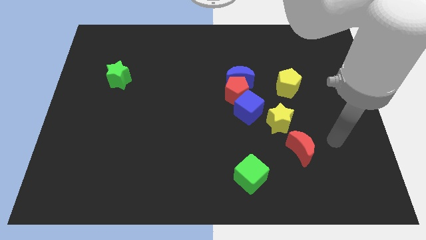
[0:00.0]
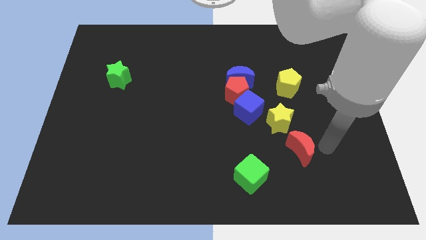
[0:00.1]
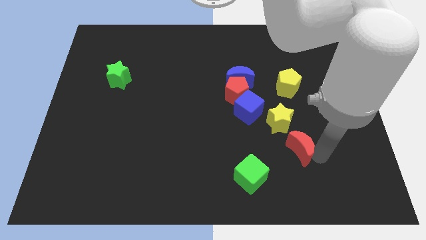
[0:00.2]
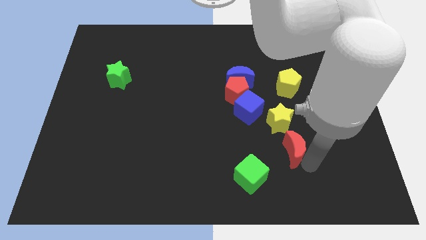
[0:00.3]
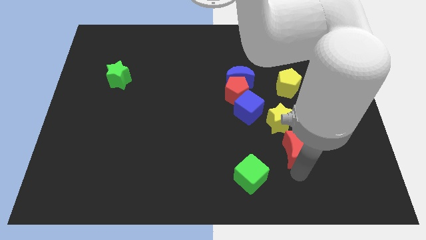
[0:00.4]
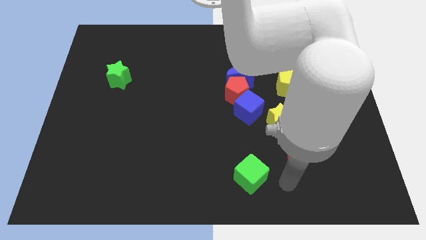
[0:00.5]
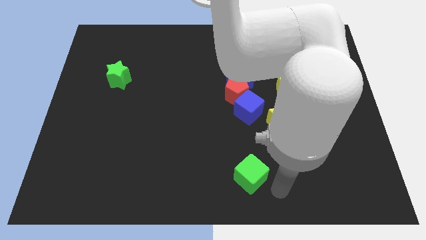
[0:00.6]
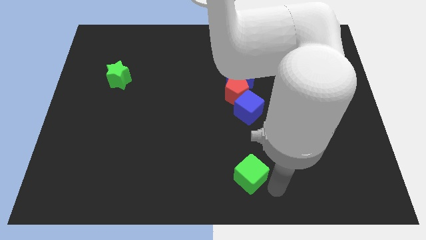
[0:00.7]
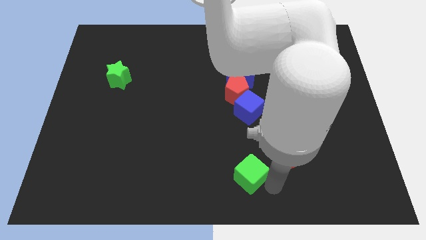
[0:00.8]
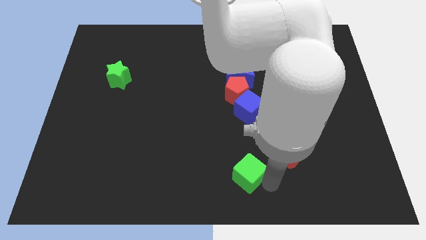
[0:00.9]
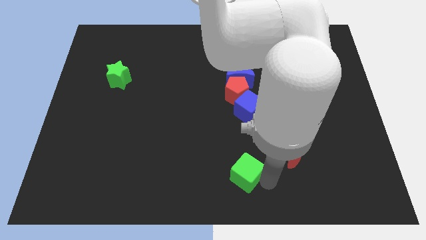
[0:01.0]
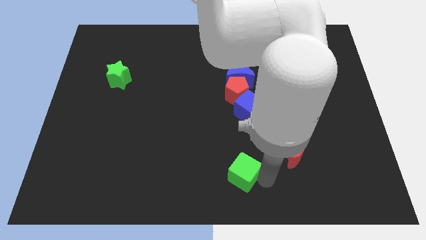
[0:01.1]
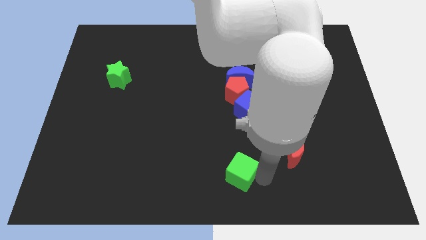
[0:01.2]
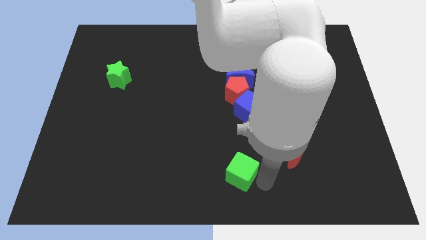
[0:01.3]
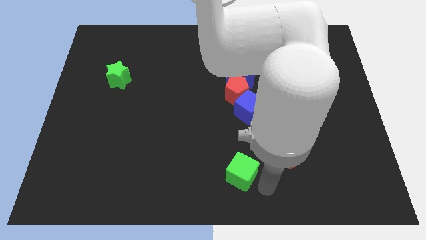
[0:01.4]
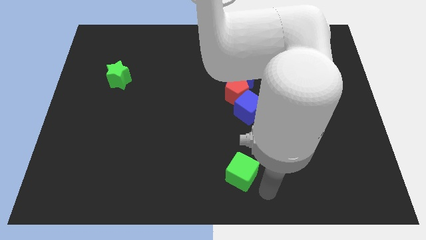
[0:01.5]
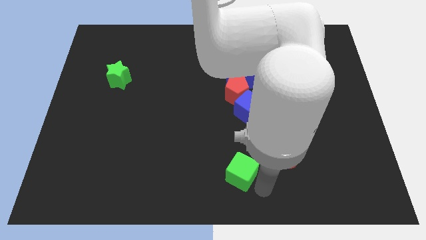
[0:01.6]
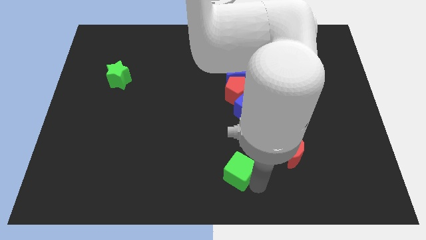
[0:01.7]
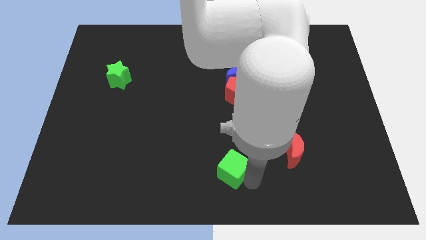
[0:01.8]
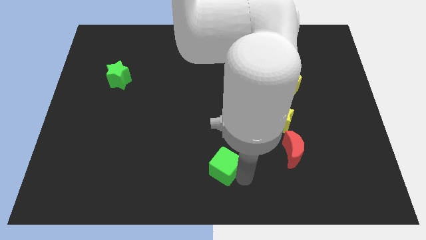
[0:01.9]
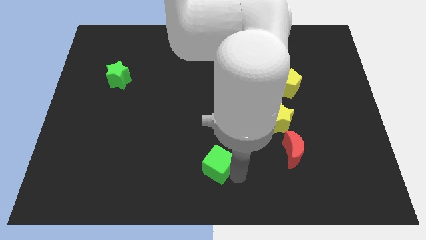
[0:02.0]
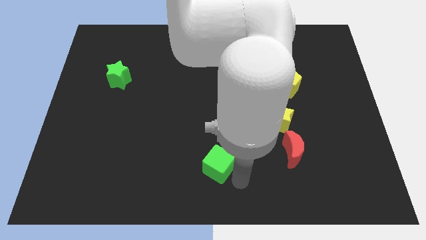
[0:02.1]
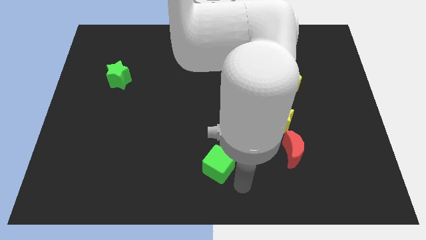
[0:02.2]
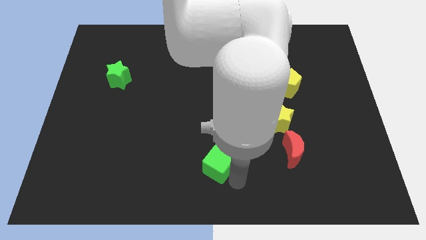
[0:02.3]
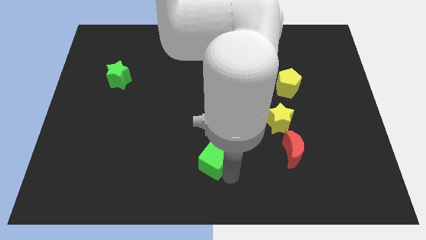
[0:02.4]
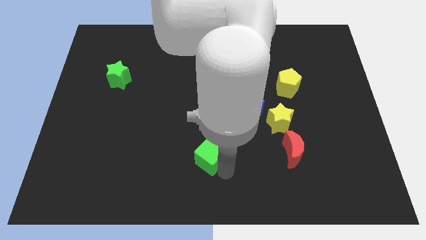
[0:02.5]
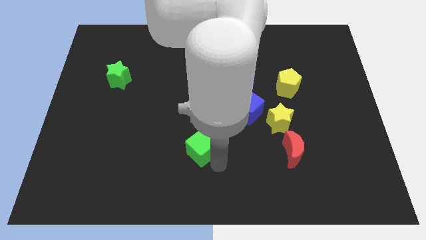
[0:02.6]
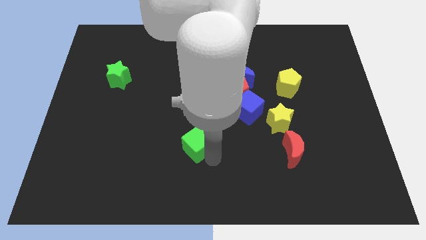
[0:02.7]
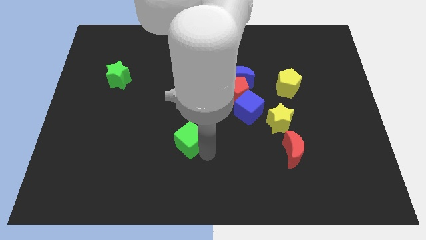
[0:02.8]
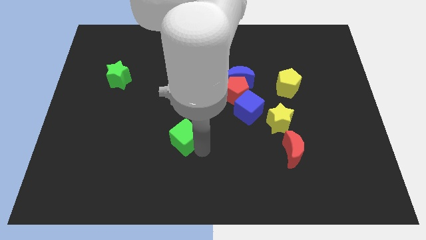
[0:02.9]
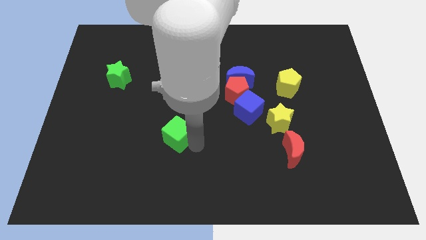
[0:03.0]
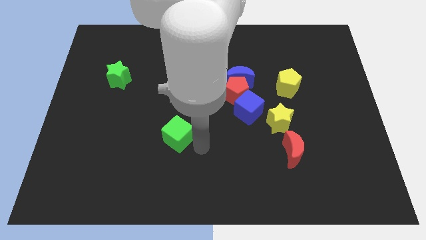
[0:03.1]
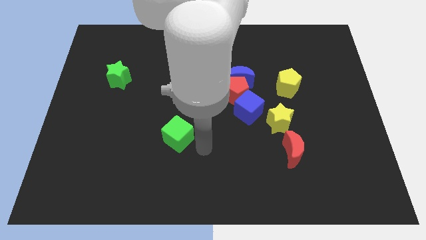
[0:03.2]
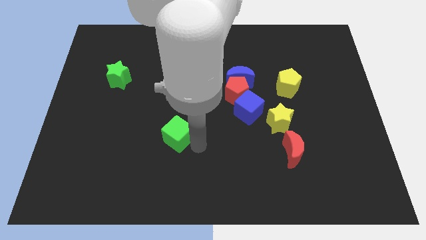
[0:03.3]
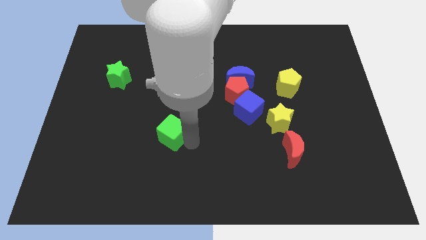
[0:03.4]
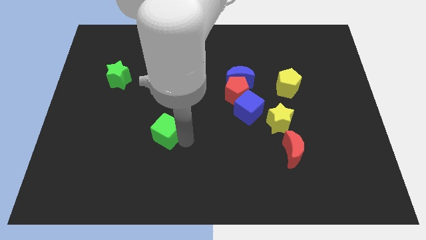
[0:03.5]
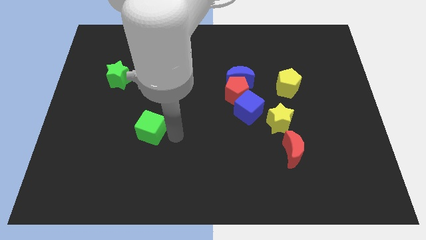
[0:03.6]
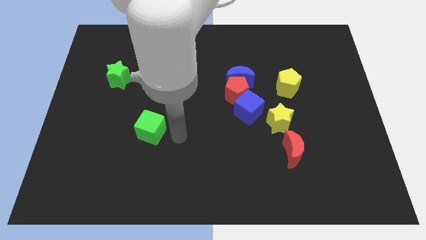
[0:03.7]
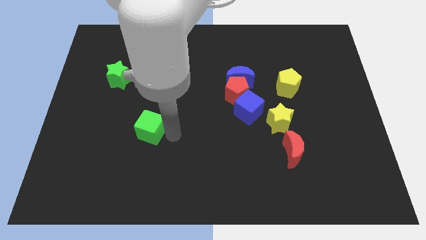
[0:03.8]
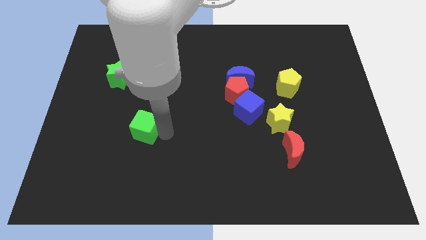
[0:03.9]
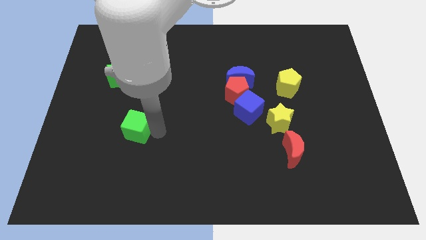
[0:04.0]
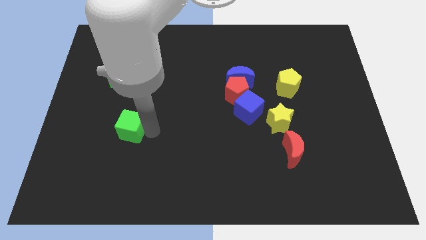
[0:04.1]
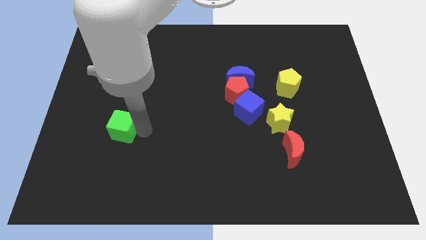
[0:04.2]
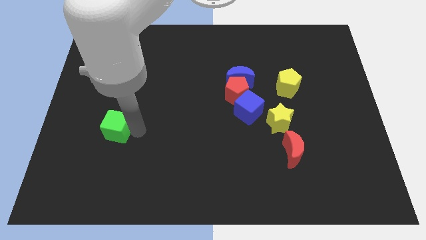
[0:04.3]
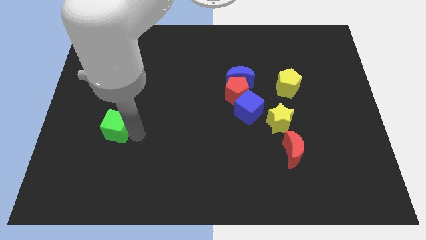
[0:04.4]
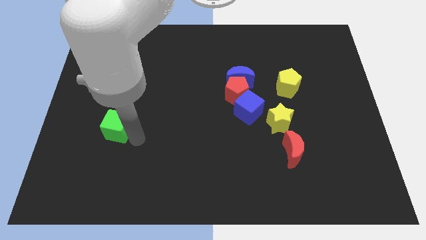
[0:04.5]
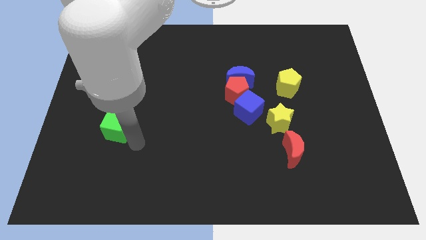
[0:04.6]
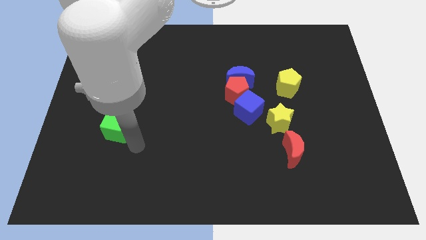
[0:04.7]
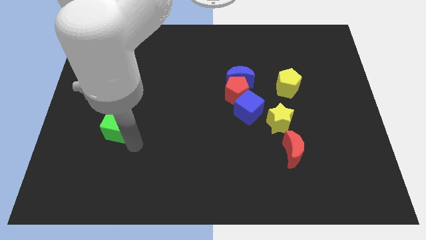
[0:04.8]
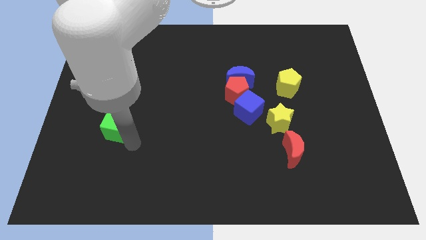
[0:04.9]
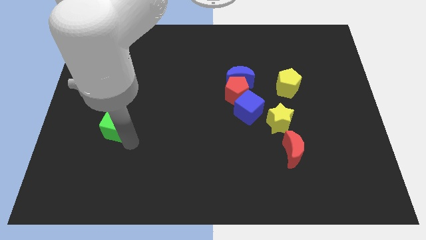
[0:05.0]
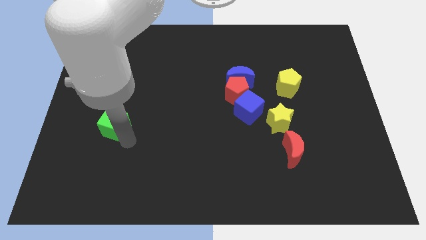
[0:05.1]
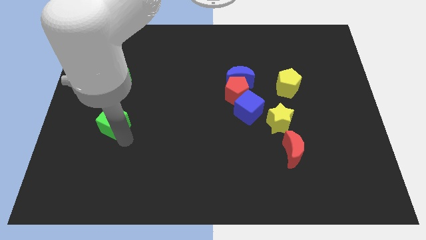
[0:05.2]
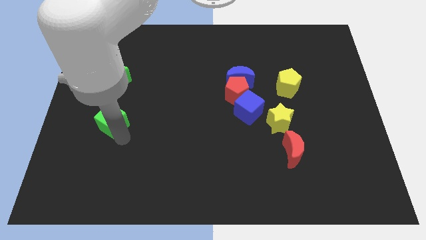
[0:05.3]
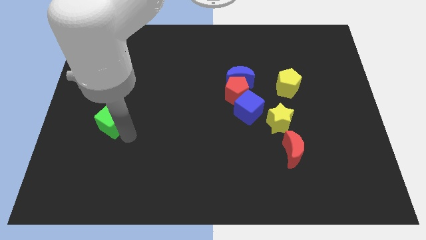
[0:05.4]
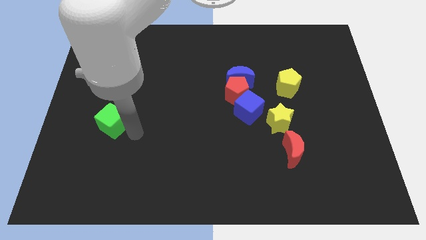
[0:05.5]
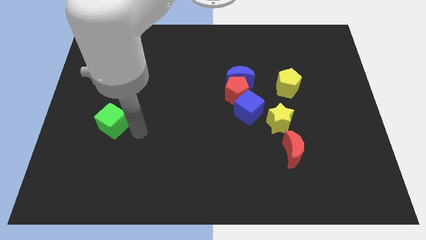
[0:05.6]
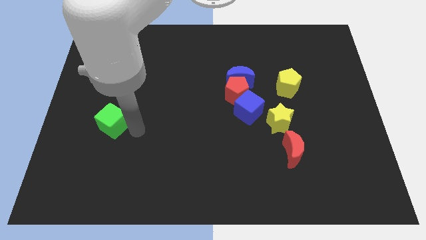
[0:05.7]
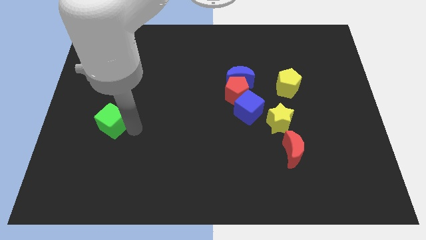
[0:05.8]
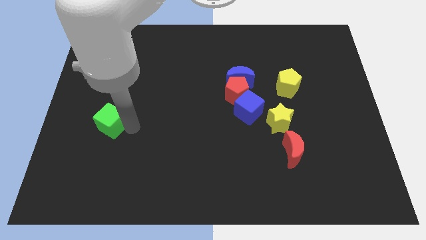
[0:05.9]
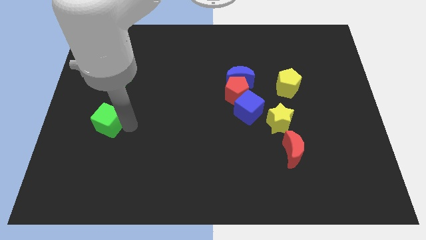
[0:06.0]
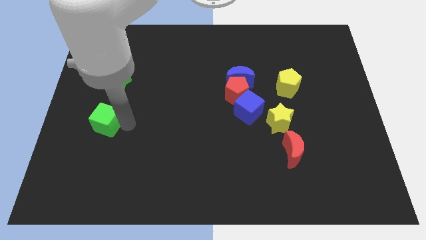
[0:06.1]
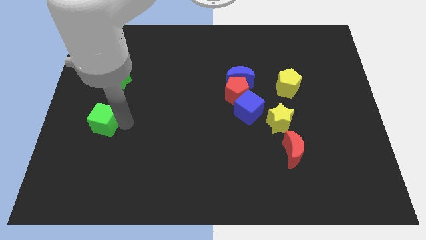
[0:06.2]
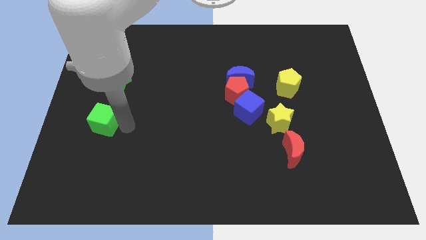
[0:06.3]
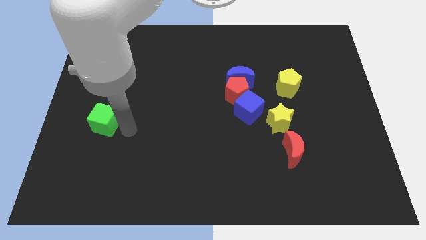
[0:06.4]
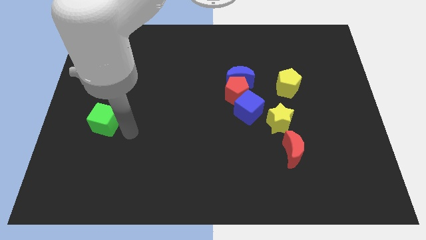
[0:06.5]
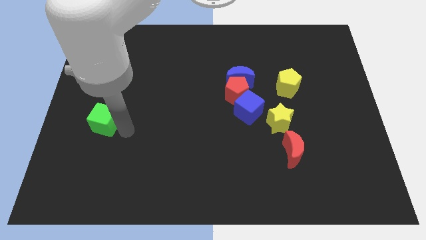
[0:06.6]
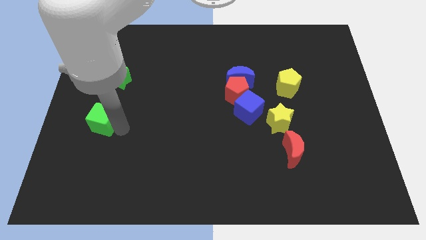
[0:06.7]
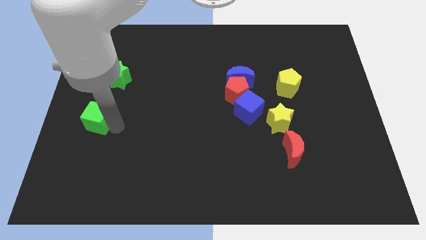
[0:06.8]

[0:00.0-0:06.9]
push the green cube to the center left
